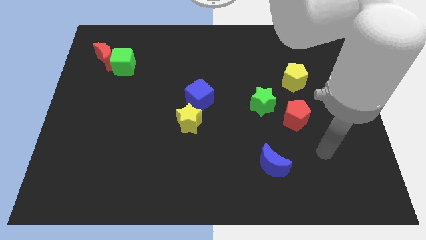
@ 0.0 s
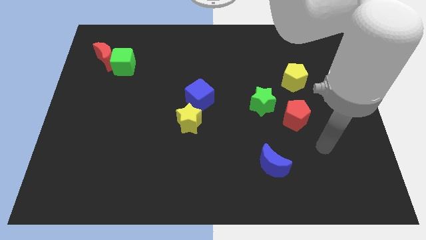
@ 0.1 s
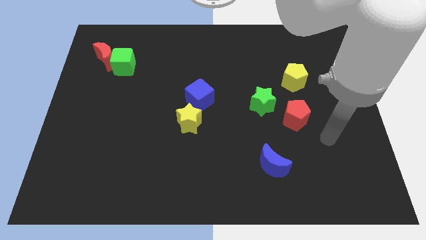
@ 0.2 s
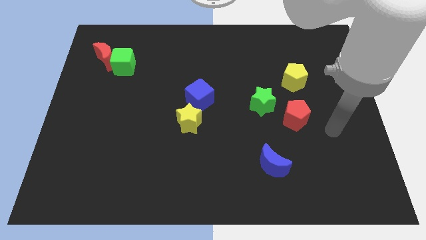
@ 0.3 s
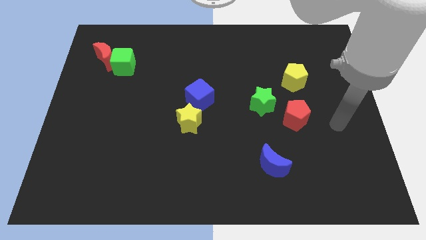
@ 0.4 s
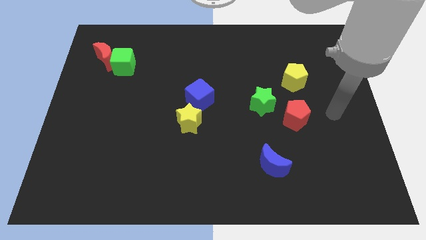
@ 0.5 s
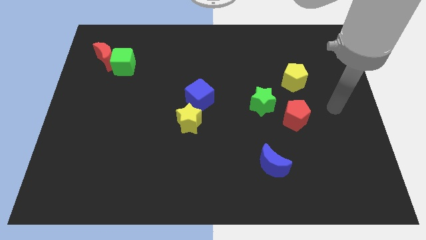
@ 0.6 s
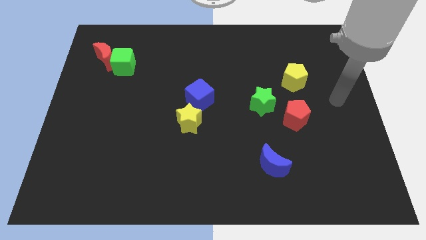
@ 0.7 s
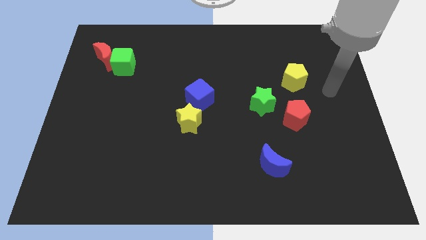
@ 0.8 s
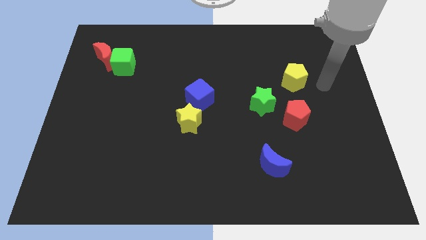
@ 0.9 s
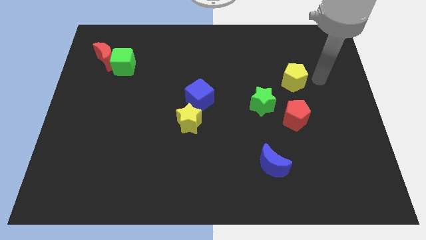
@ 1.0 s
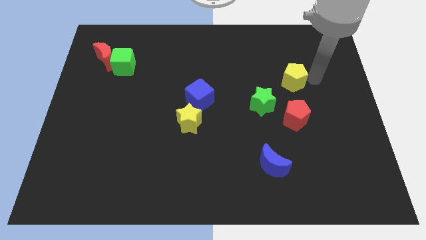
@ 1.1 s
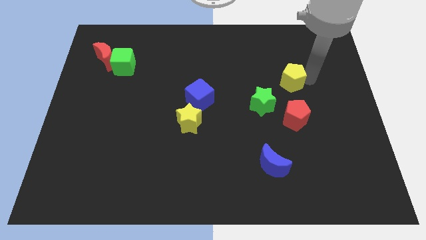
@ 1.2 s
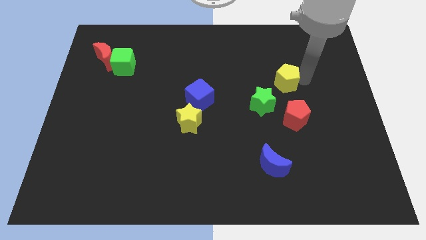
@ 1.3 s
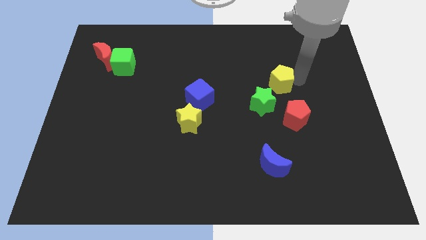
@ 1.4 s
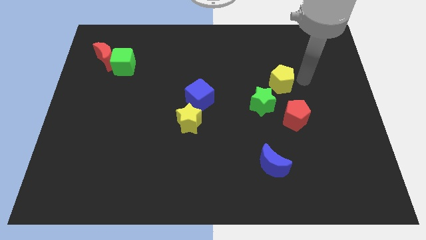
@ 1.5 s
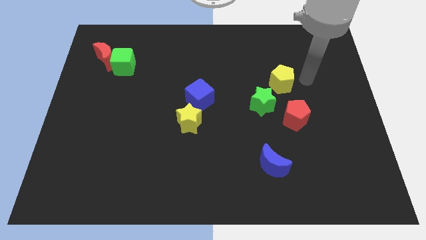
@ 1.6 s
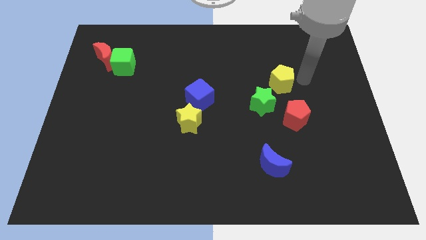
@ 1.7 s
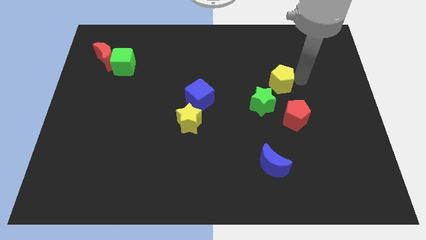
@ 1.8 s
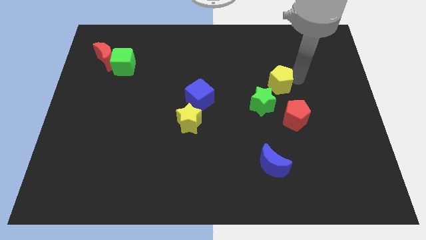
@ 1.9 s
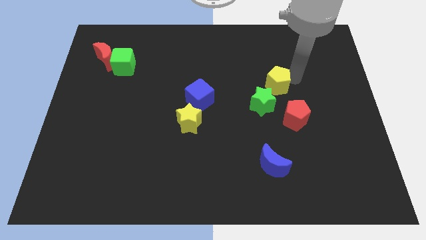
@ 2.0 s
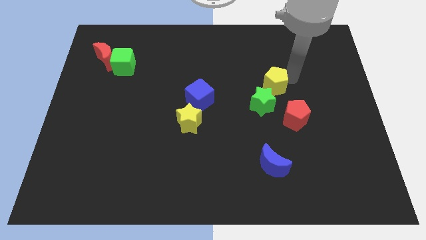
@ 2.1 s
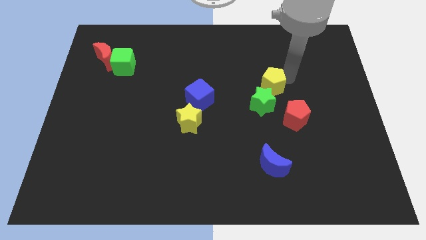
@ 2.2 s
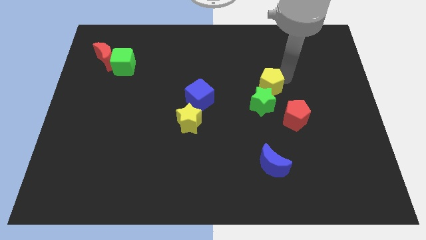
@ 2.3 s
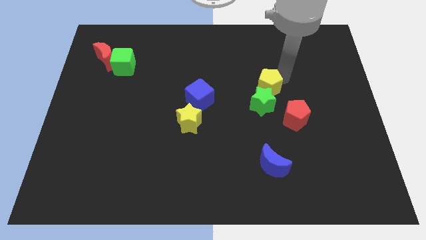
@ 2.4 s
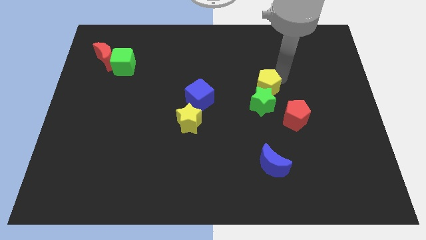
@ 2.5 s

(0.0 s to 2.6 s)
slide the yellow pentagon slightly left

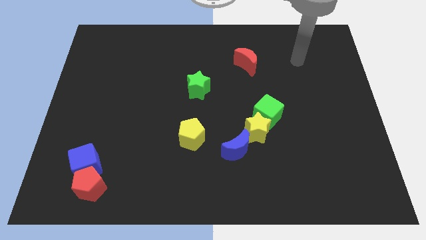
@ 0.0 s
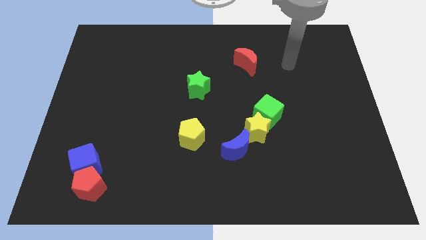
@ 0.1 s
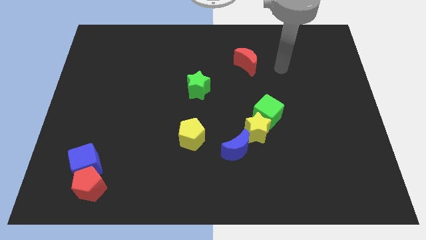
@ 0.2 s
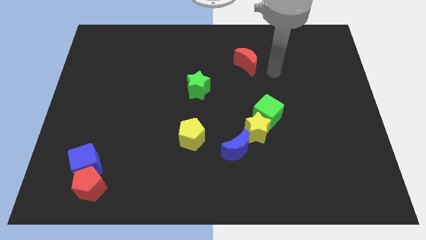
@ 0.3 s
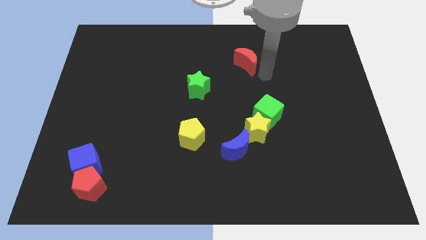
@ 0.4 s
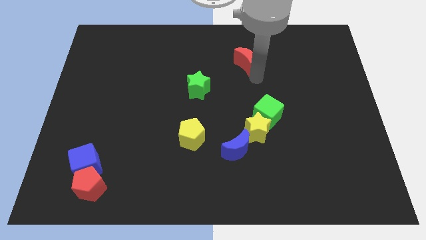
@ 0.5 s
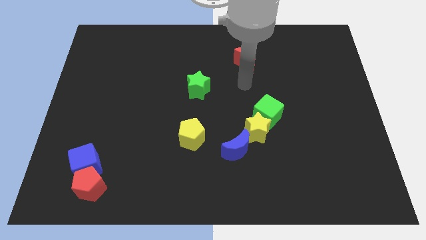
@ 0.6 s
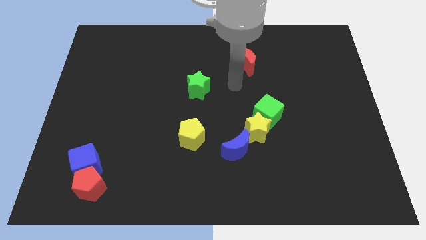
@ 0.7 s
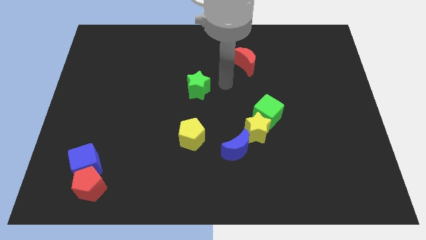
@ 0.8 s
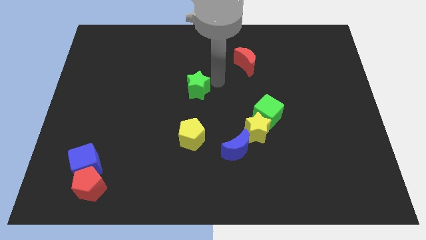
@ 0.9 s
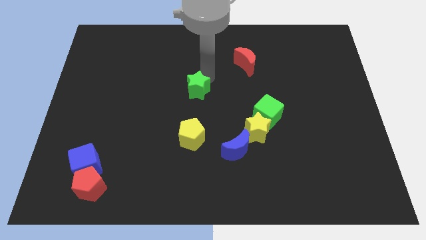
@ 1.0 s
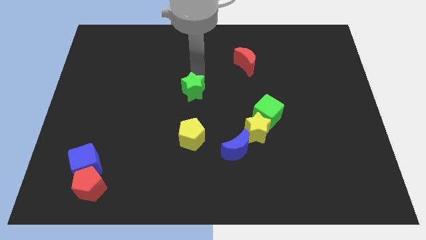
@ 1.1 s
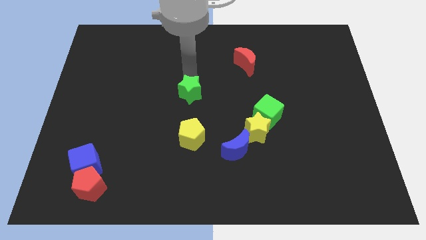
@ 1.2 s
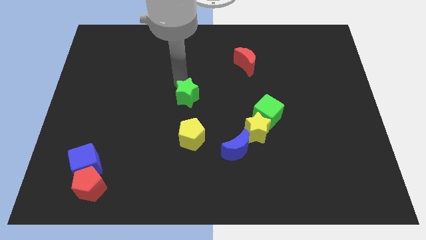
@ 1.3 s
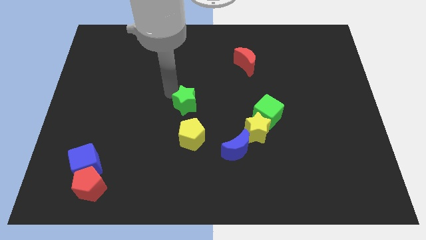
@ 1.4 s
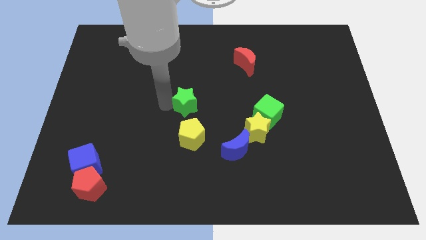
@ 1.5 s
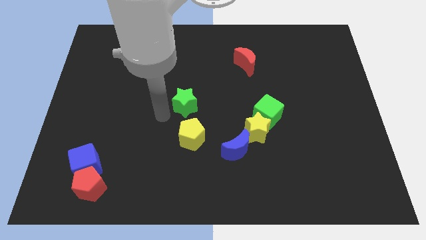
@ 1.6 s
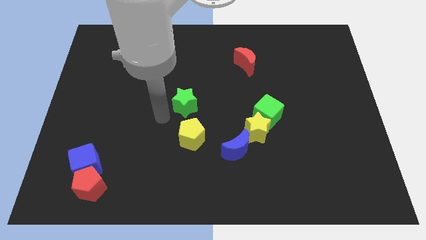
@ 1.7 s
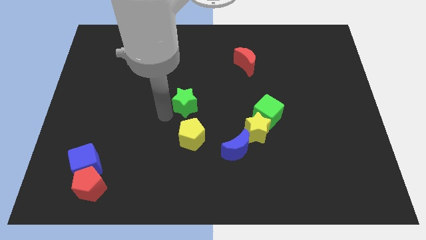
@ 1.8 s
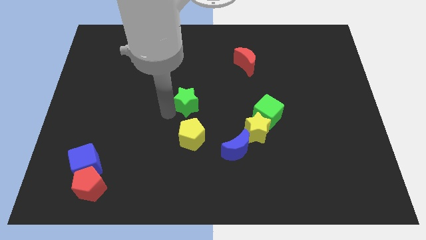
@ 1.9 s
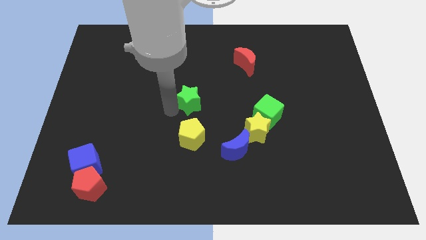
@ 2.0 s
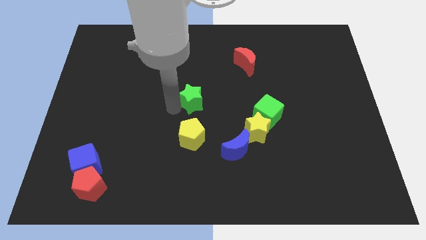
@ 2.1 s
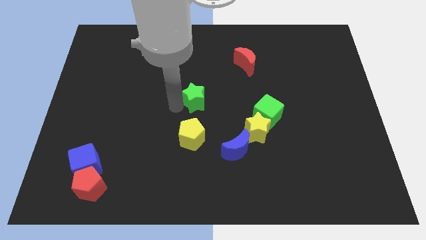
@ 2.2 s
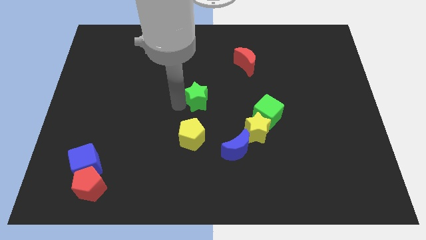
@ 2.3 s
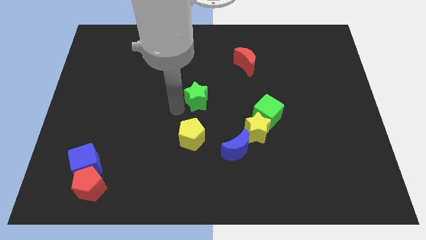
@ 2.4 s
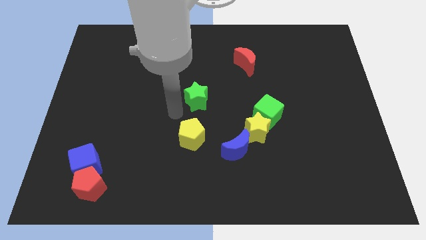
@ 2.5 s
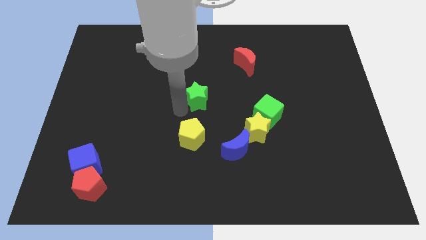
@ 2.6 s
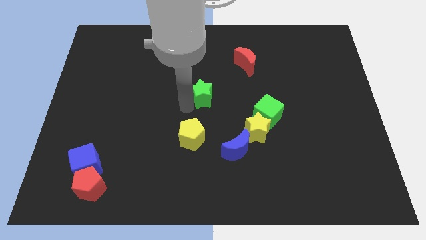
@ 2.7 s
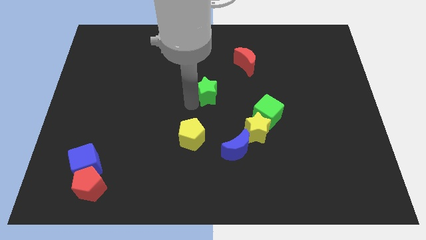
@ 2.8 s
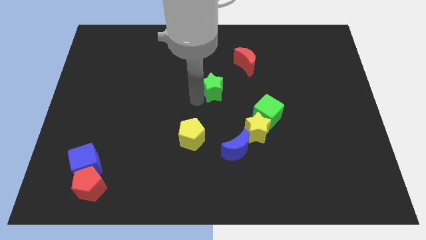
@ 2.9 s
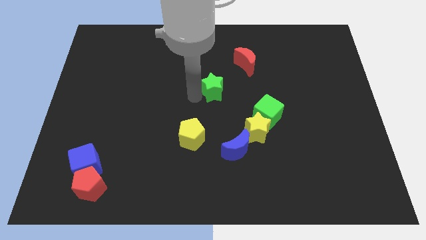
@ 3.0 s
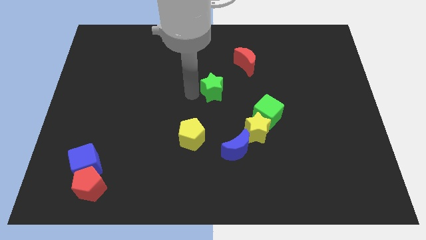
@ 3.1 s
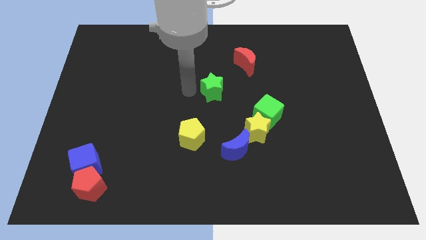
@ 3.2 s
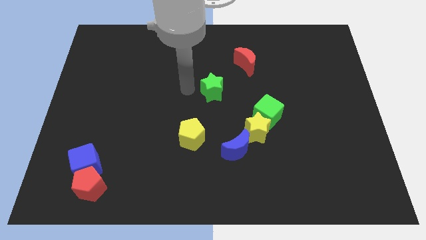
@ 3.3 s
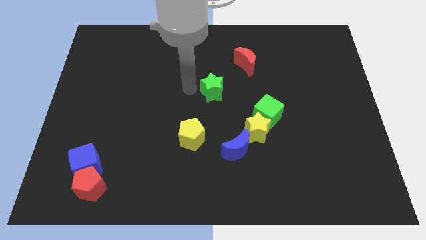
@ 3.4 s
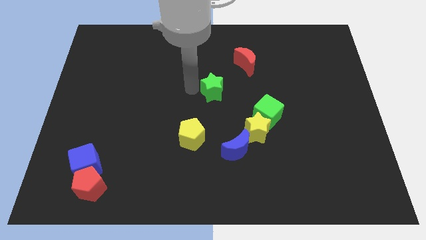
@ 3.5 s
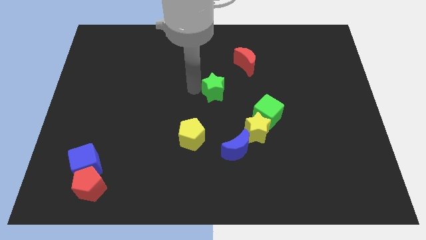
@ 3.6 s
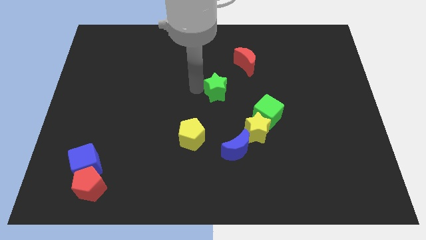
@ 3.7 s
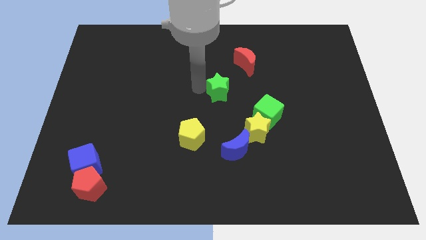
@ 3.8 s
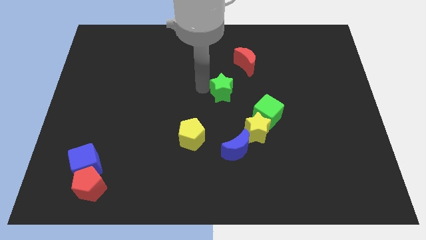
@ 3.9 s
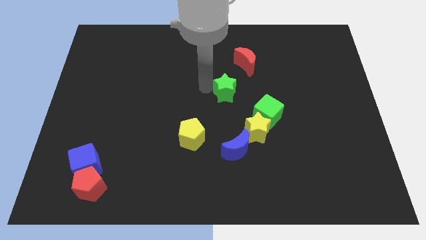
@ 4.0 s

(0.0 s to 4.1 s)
move the green star a bit to the right

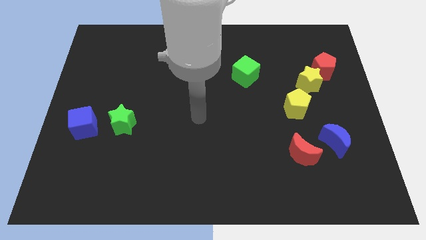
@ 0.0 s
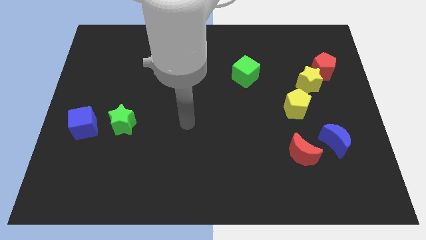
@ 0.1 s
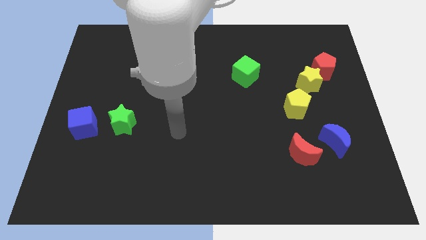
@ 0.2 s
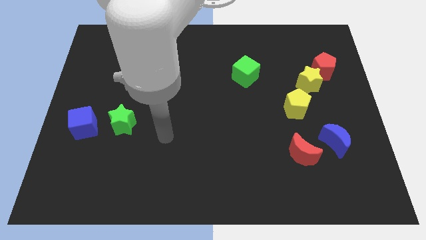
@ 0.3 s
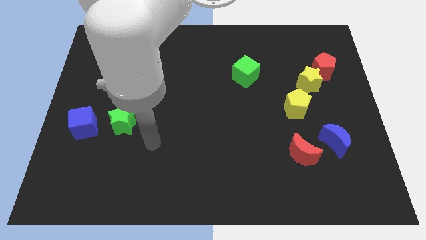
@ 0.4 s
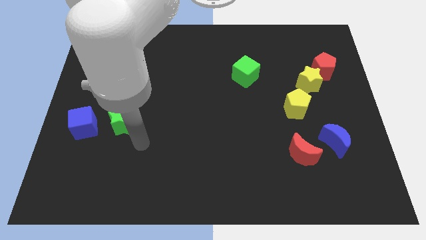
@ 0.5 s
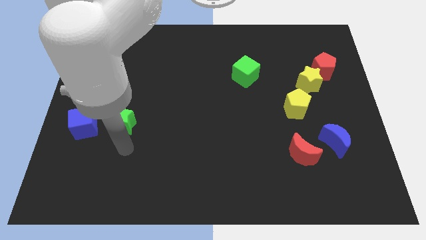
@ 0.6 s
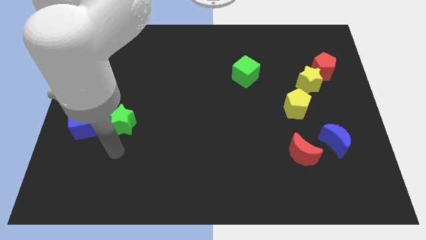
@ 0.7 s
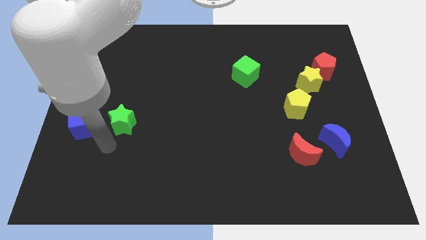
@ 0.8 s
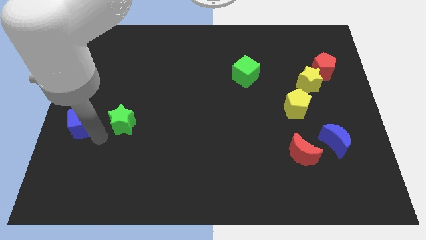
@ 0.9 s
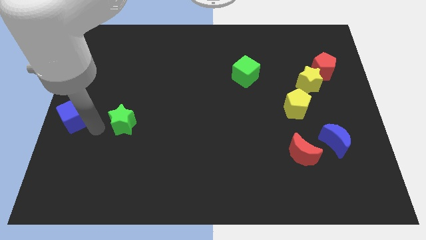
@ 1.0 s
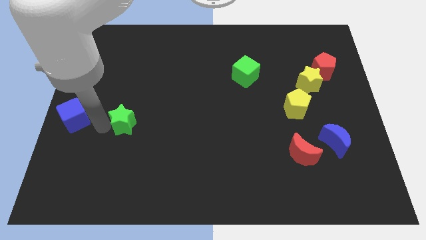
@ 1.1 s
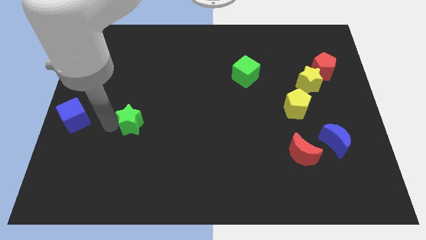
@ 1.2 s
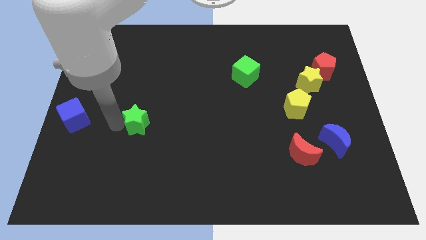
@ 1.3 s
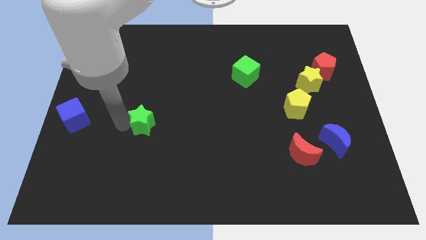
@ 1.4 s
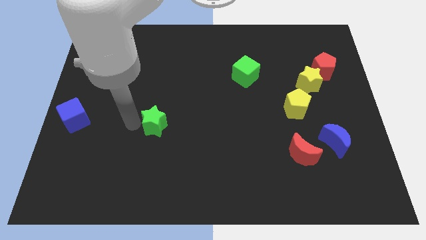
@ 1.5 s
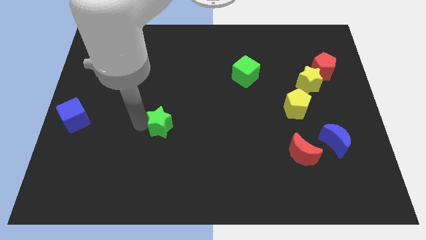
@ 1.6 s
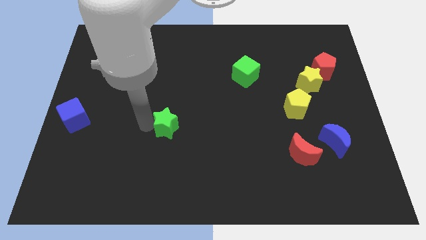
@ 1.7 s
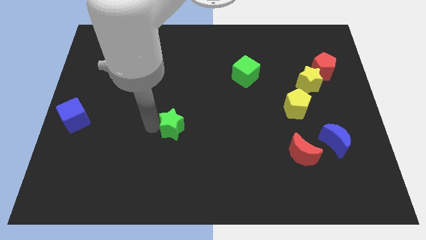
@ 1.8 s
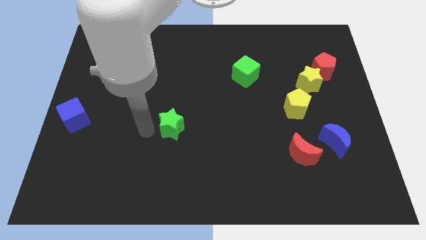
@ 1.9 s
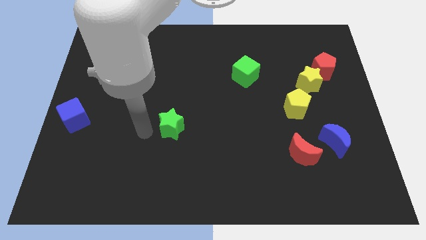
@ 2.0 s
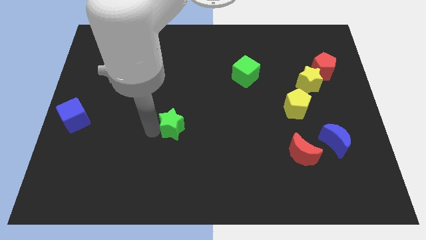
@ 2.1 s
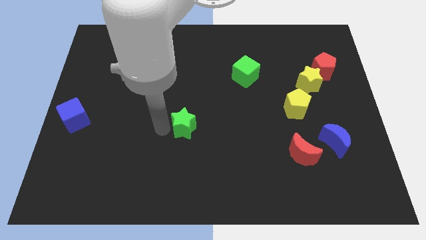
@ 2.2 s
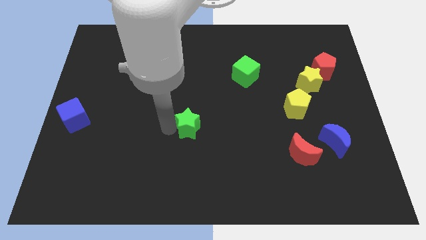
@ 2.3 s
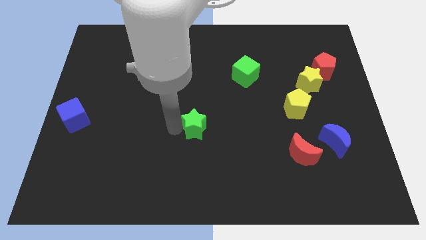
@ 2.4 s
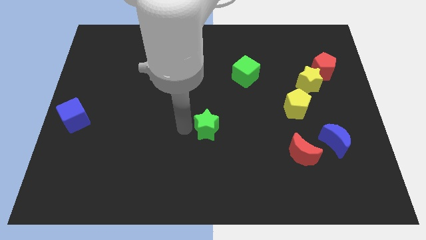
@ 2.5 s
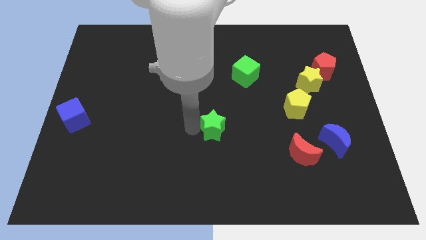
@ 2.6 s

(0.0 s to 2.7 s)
push the green star to the right
